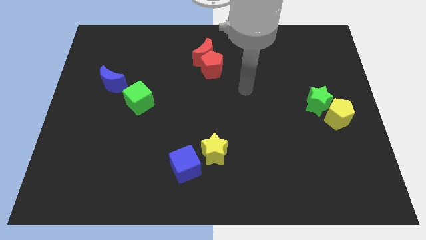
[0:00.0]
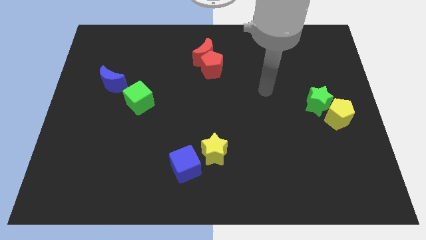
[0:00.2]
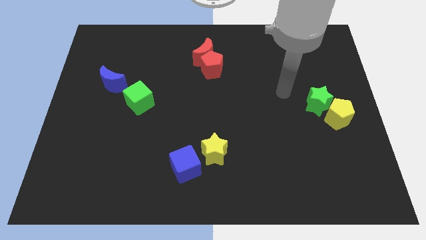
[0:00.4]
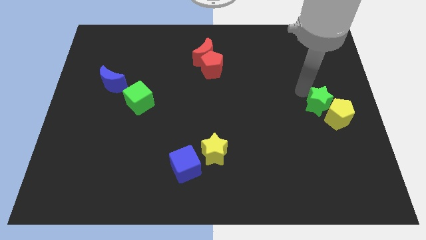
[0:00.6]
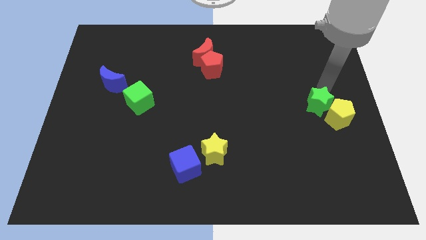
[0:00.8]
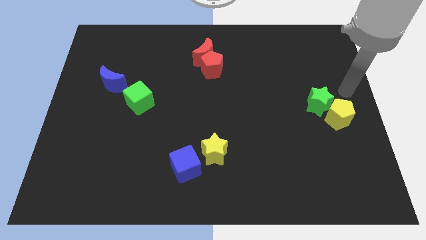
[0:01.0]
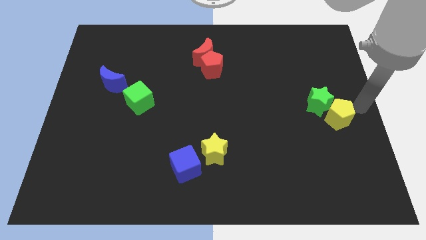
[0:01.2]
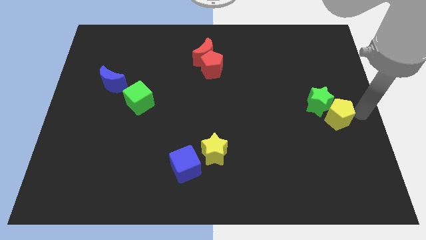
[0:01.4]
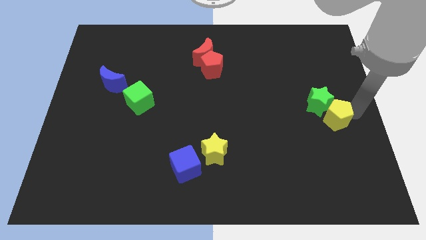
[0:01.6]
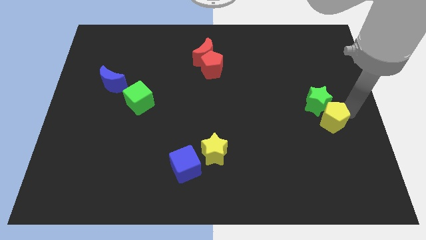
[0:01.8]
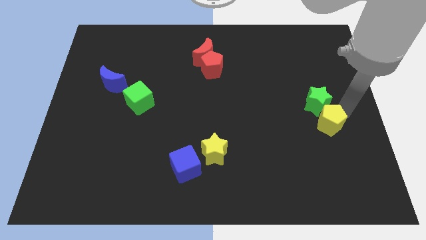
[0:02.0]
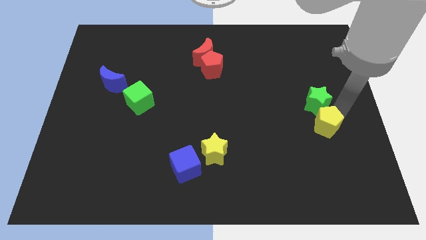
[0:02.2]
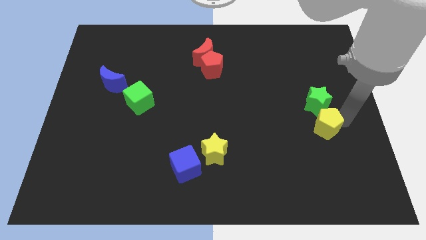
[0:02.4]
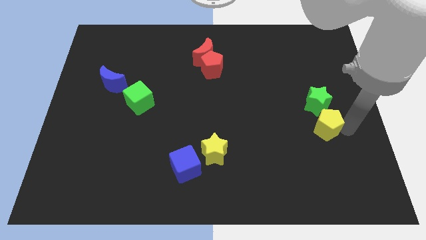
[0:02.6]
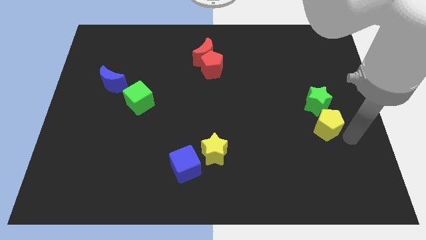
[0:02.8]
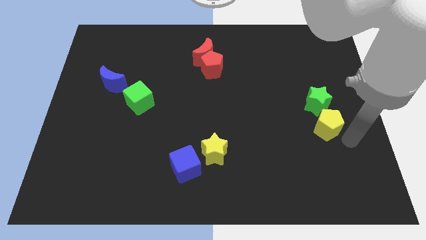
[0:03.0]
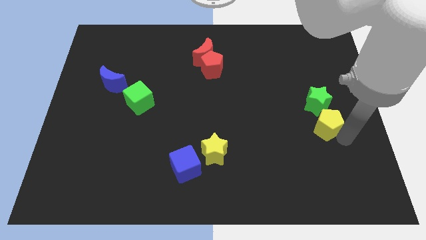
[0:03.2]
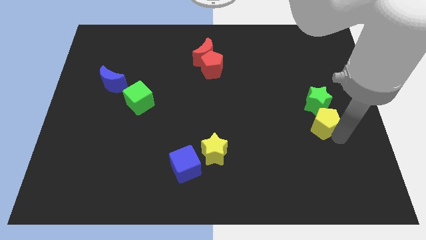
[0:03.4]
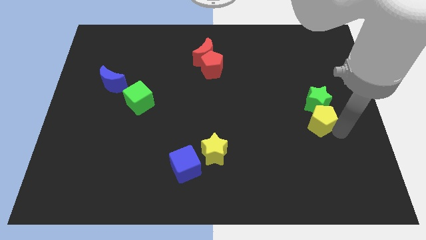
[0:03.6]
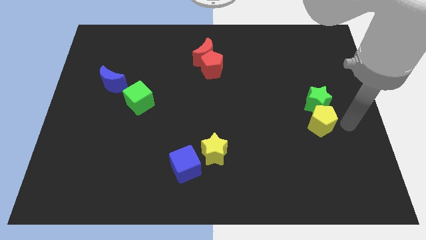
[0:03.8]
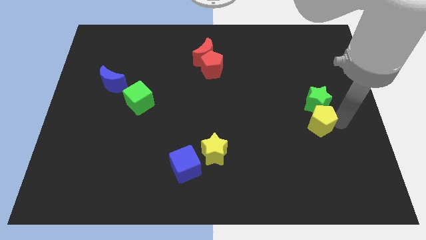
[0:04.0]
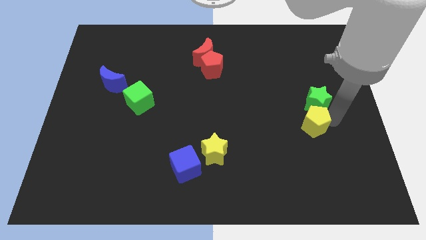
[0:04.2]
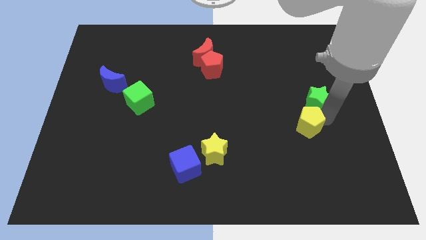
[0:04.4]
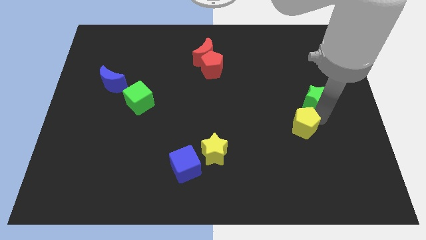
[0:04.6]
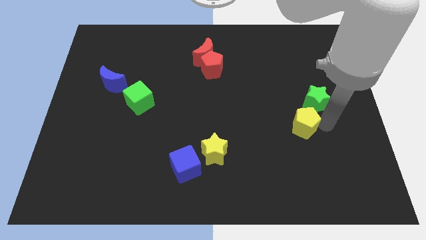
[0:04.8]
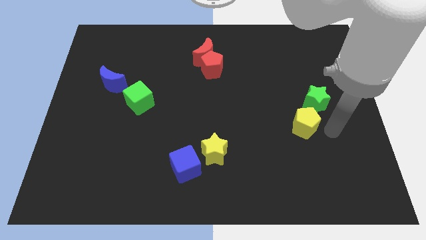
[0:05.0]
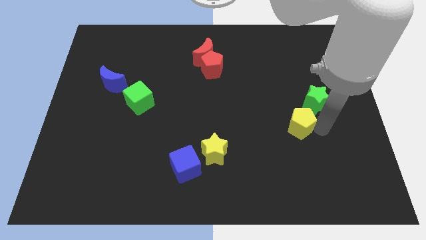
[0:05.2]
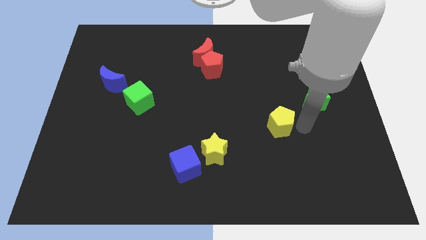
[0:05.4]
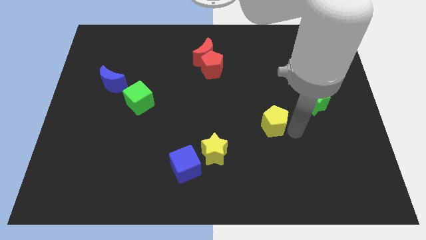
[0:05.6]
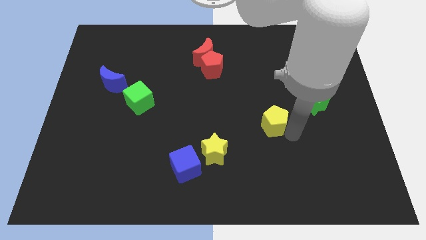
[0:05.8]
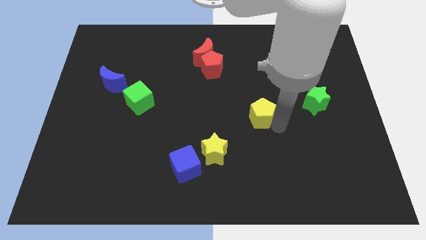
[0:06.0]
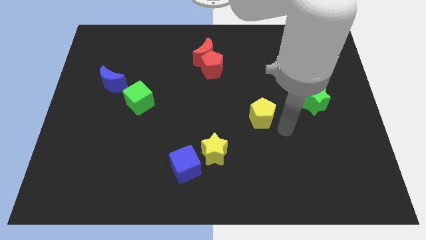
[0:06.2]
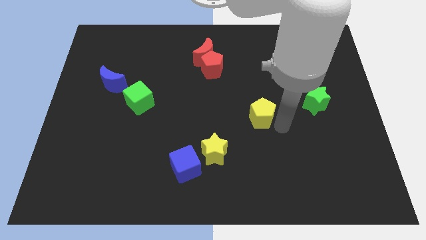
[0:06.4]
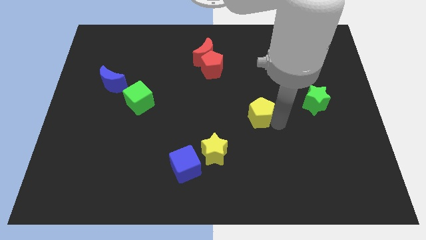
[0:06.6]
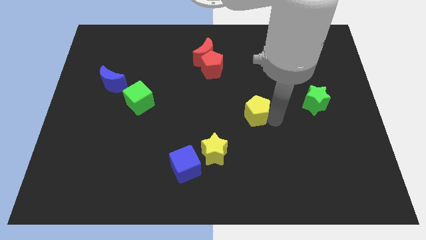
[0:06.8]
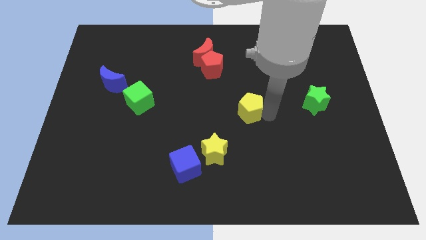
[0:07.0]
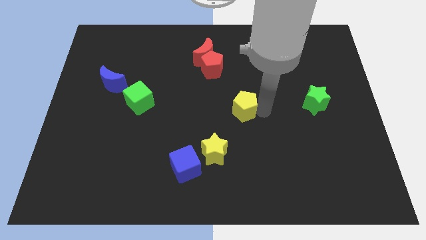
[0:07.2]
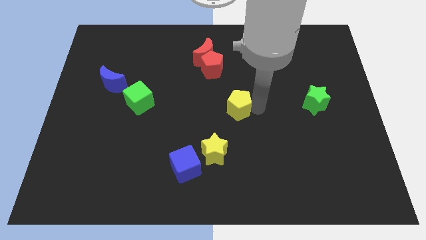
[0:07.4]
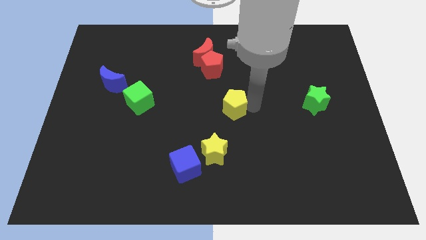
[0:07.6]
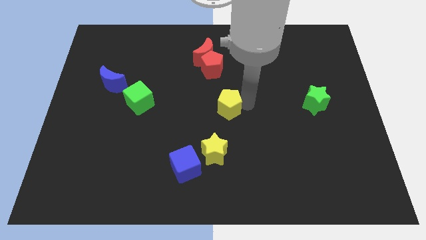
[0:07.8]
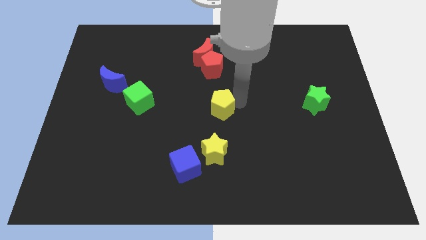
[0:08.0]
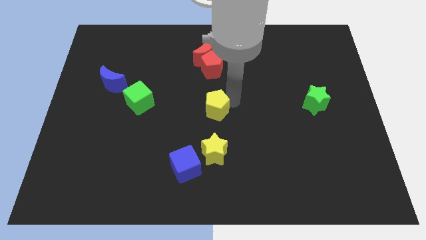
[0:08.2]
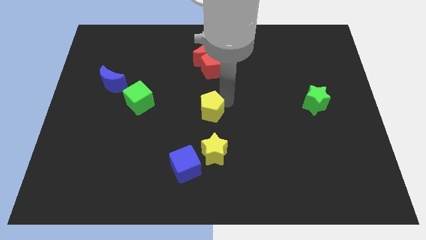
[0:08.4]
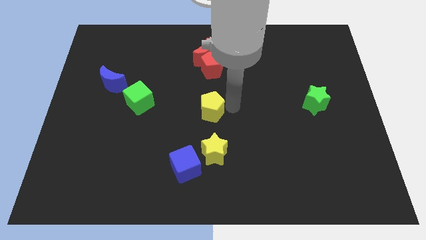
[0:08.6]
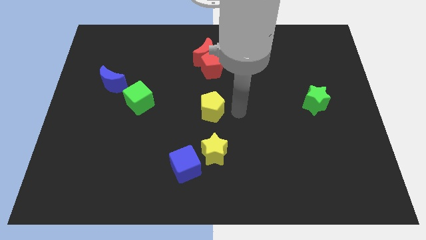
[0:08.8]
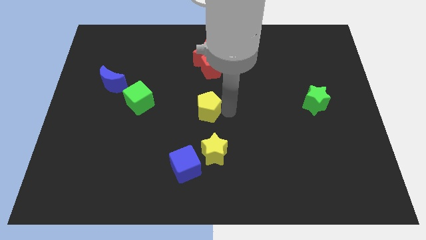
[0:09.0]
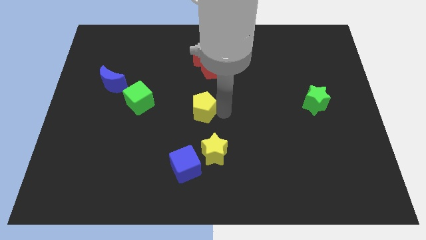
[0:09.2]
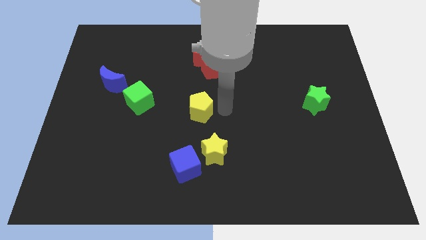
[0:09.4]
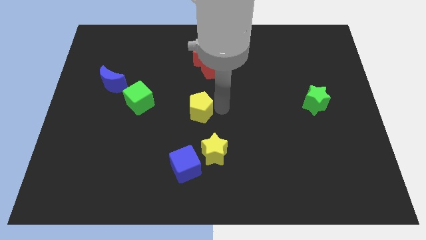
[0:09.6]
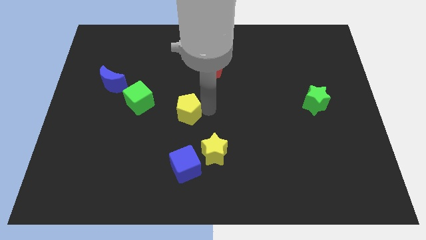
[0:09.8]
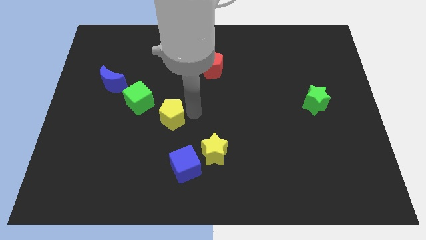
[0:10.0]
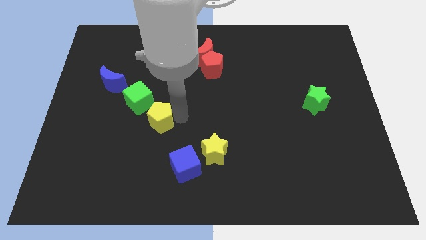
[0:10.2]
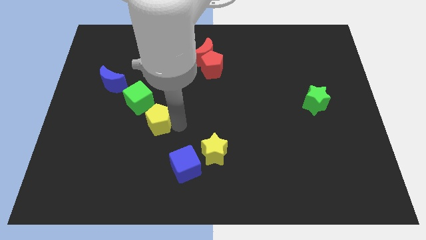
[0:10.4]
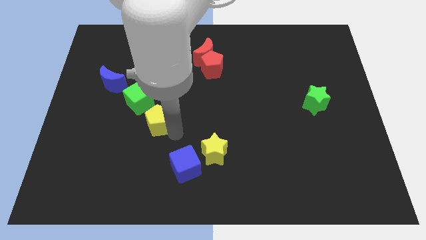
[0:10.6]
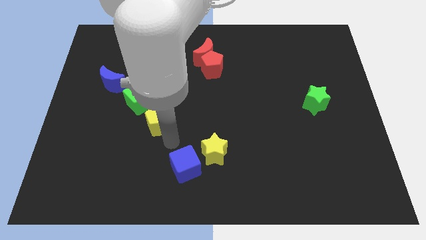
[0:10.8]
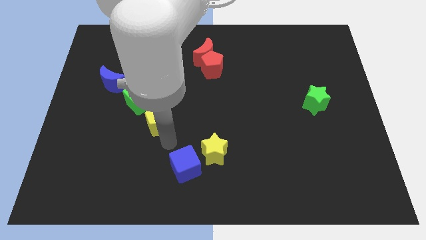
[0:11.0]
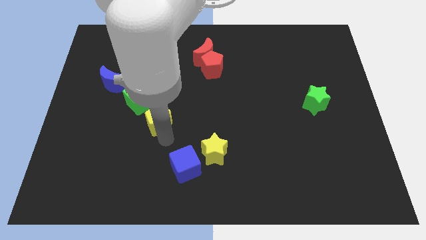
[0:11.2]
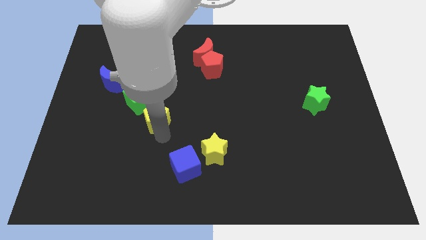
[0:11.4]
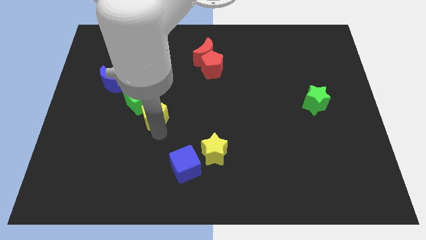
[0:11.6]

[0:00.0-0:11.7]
put the yellow pentagon next to the green cube

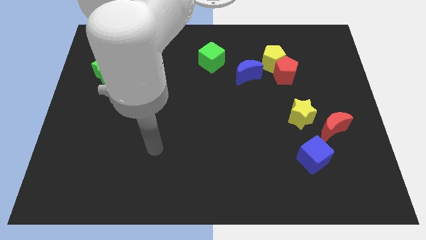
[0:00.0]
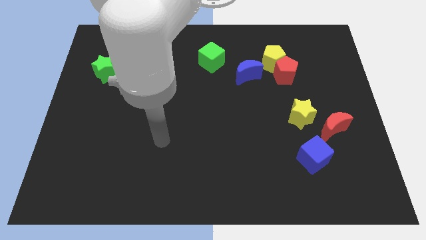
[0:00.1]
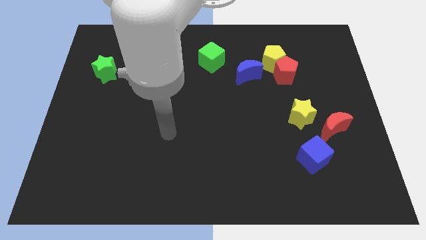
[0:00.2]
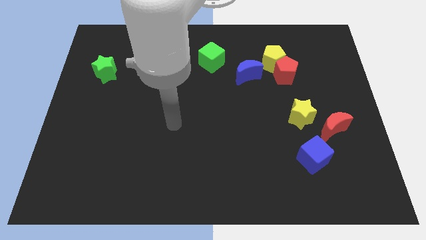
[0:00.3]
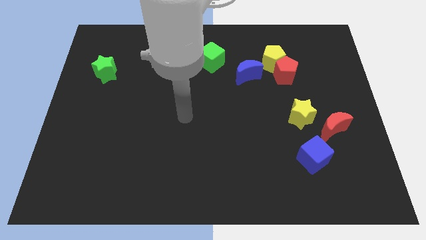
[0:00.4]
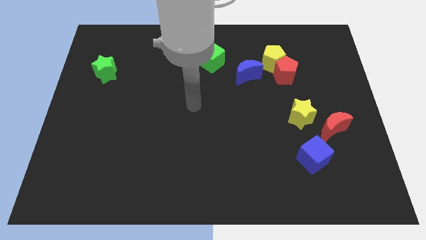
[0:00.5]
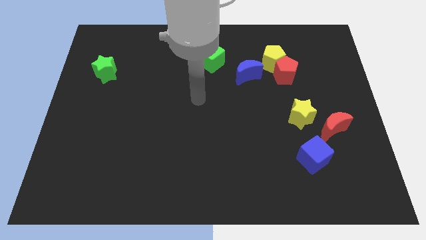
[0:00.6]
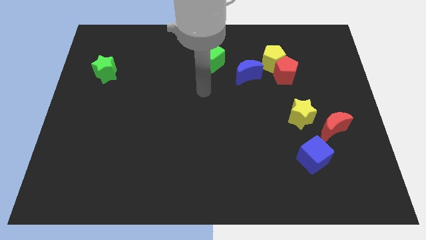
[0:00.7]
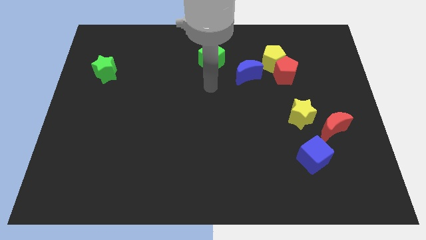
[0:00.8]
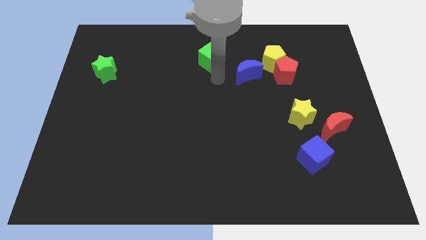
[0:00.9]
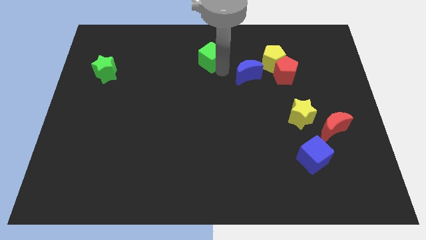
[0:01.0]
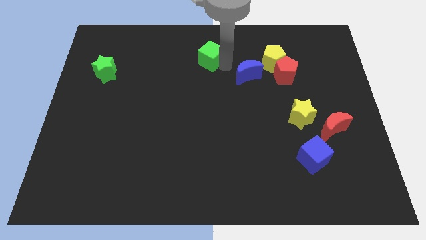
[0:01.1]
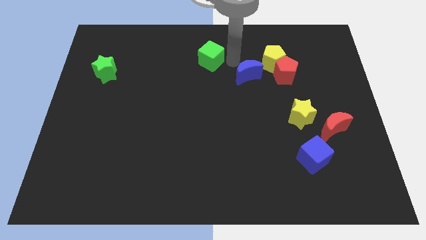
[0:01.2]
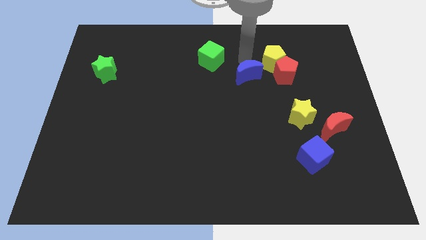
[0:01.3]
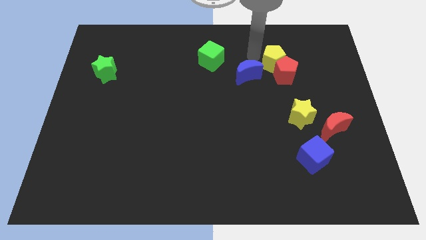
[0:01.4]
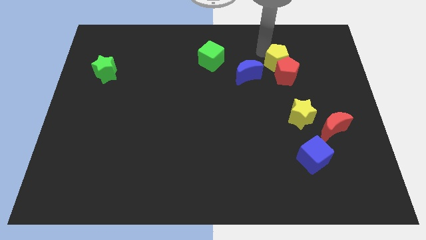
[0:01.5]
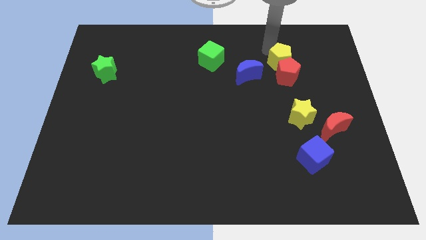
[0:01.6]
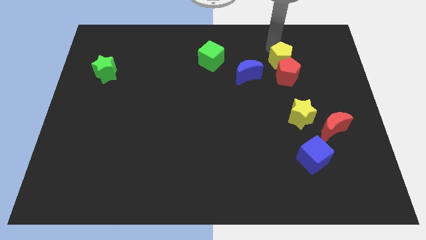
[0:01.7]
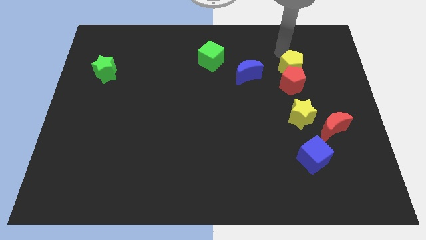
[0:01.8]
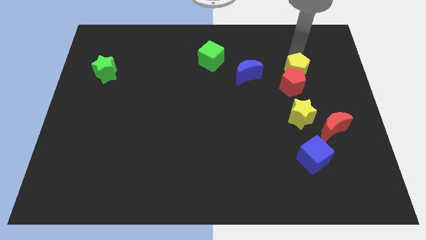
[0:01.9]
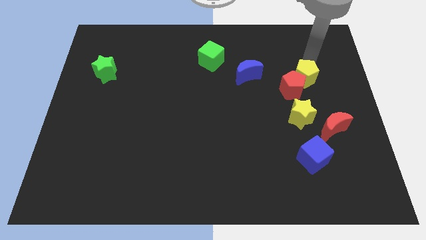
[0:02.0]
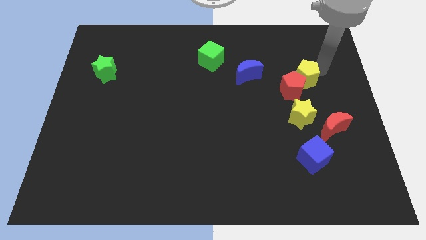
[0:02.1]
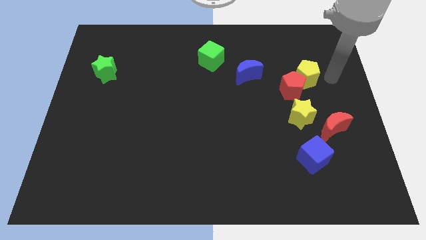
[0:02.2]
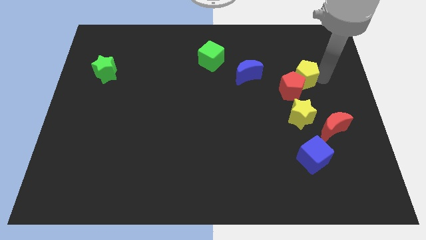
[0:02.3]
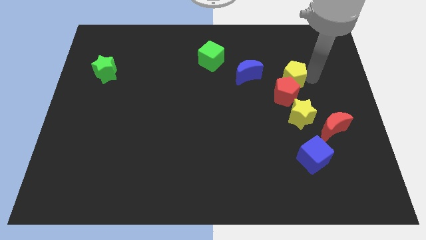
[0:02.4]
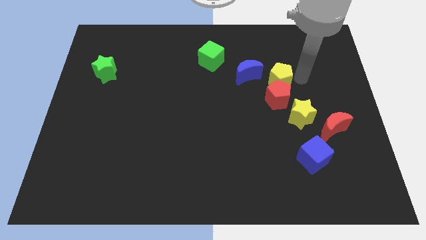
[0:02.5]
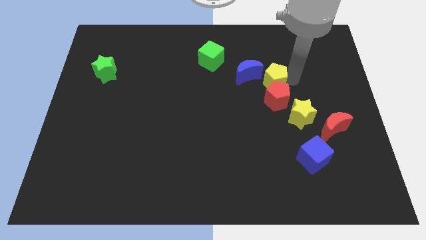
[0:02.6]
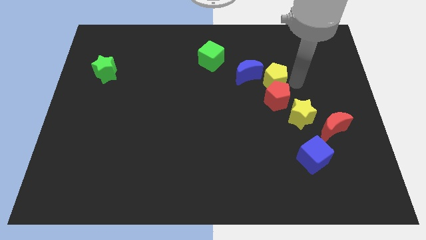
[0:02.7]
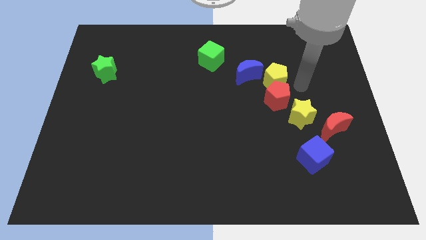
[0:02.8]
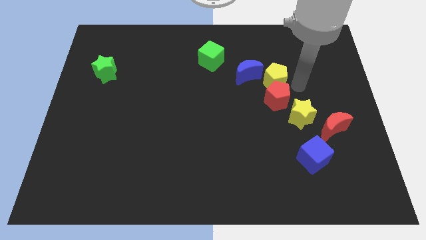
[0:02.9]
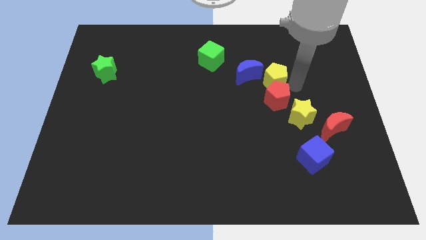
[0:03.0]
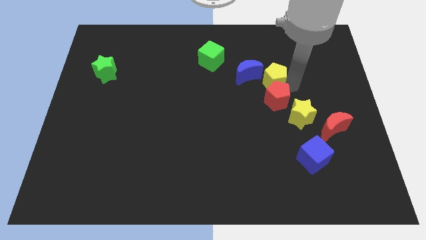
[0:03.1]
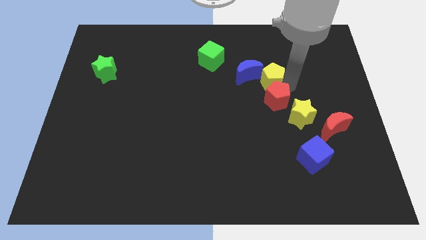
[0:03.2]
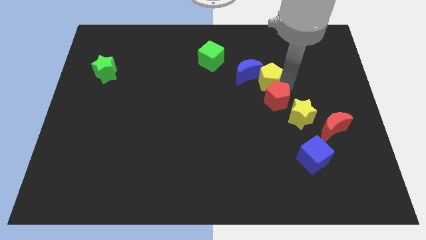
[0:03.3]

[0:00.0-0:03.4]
push the yellow pentagon towards the blue moon
